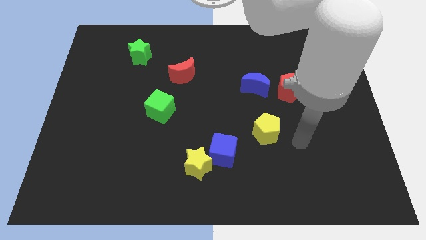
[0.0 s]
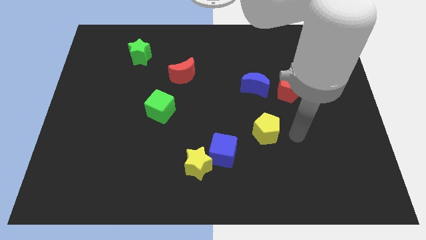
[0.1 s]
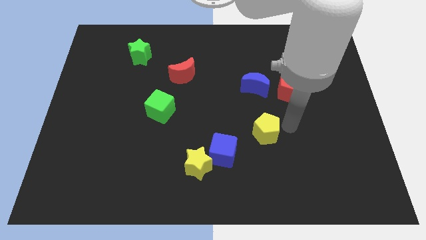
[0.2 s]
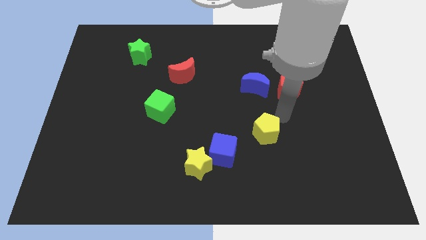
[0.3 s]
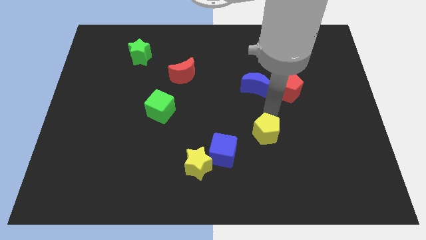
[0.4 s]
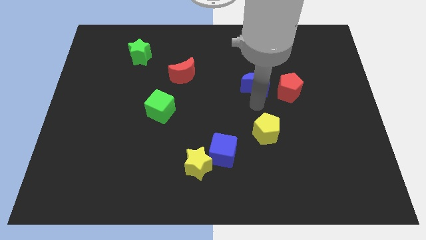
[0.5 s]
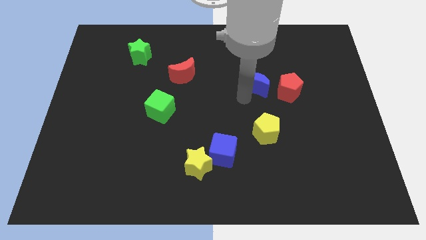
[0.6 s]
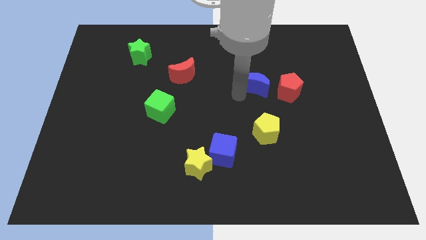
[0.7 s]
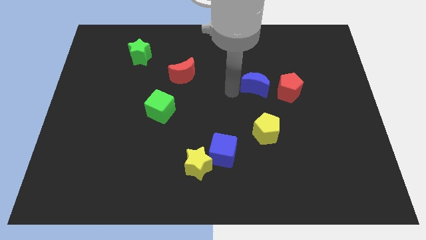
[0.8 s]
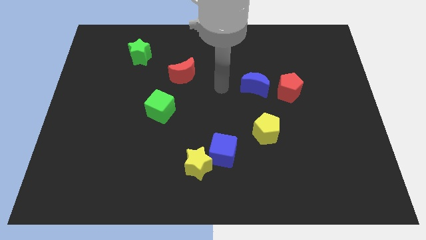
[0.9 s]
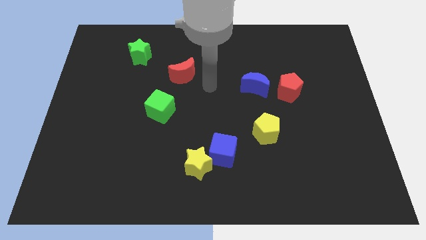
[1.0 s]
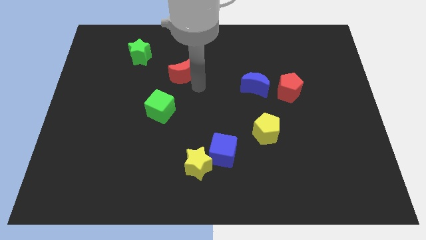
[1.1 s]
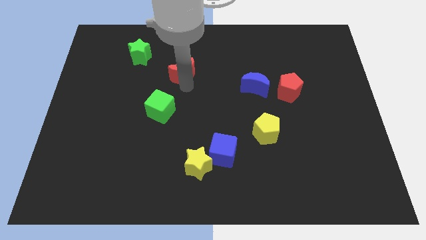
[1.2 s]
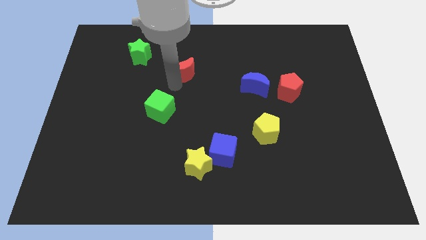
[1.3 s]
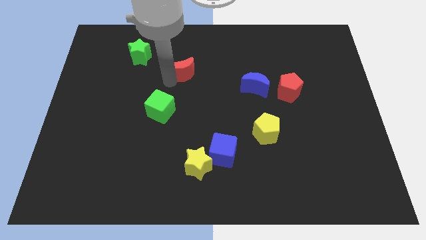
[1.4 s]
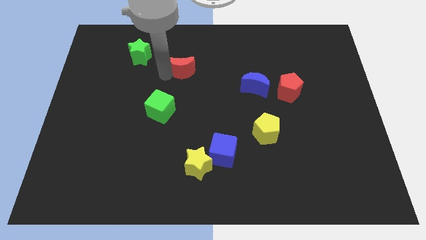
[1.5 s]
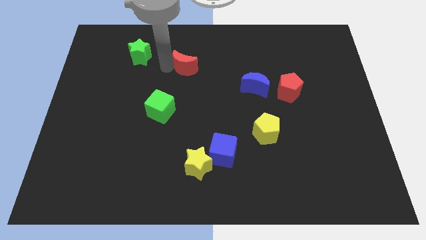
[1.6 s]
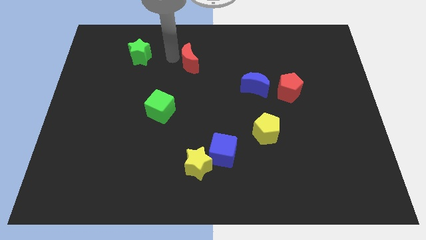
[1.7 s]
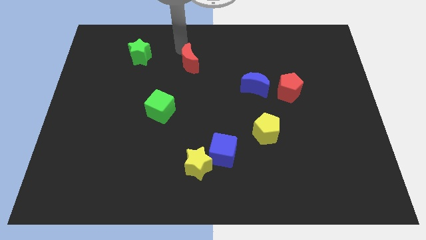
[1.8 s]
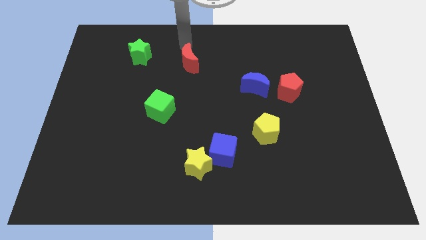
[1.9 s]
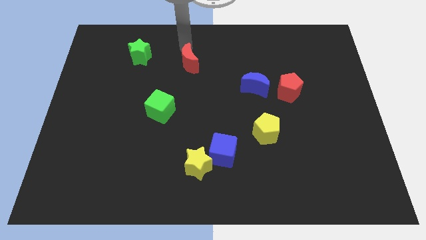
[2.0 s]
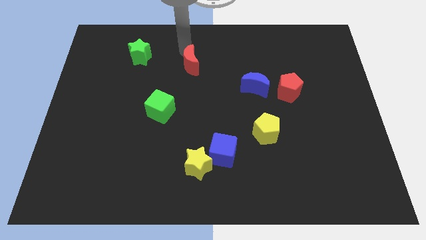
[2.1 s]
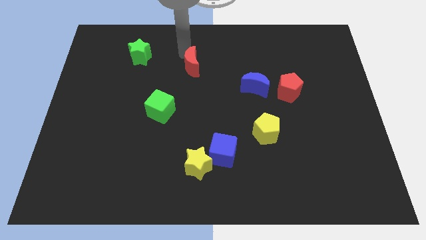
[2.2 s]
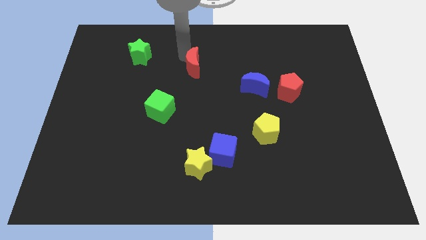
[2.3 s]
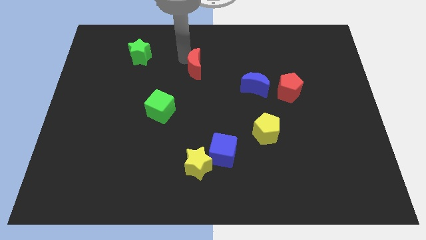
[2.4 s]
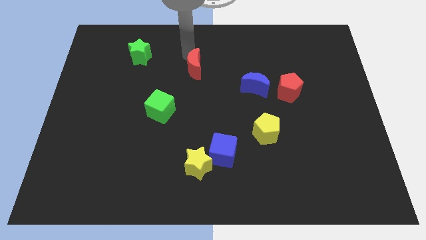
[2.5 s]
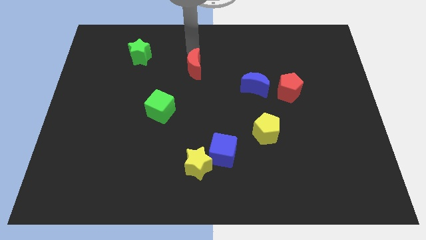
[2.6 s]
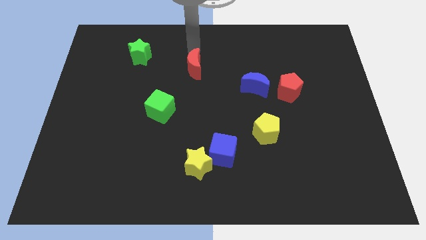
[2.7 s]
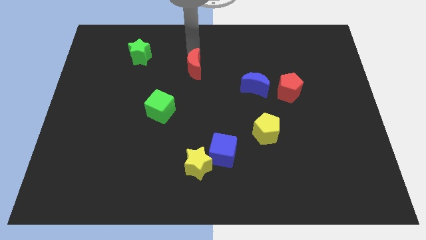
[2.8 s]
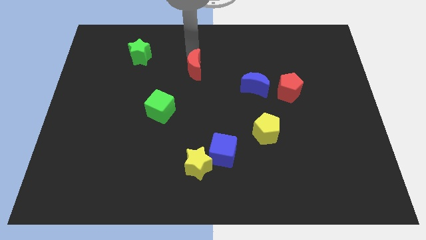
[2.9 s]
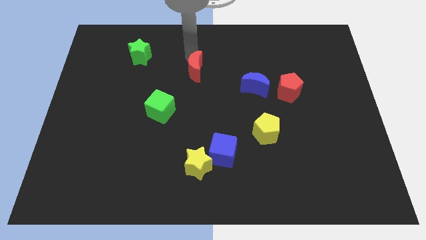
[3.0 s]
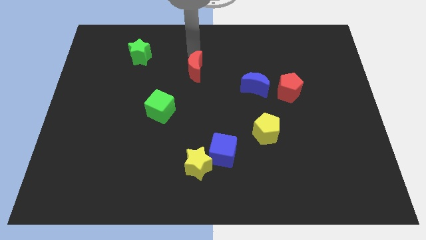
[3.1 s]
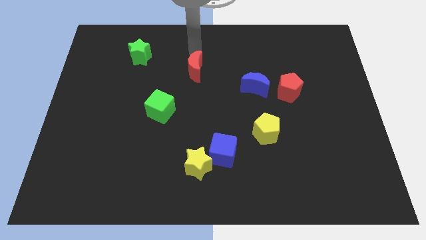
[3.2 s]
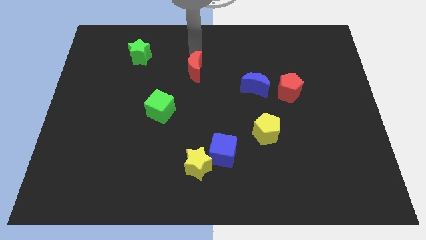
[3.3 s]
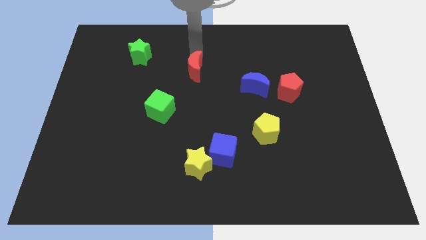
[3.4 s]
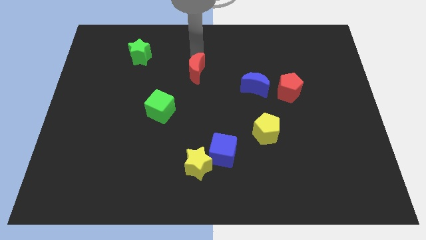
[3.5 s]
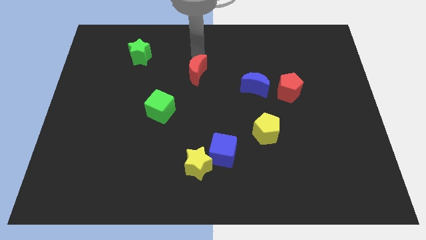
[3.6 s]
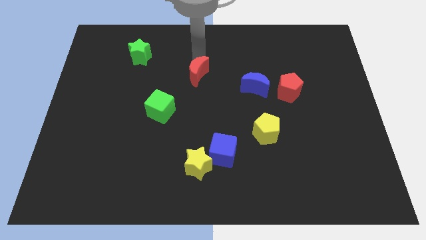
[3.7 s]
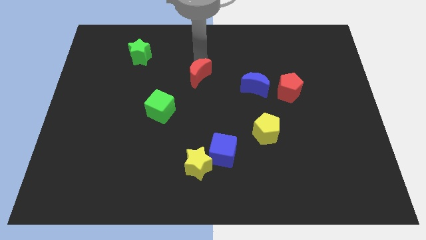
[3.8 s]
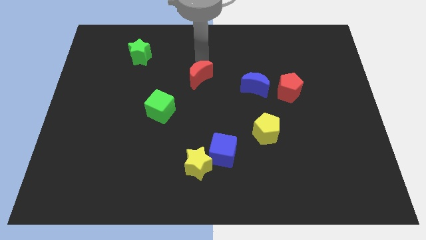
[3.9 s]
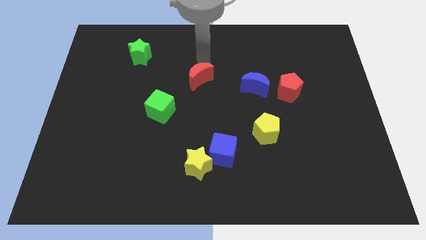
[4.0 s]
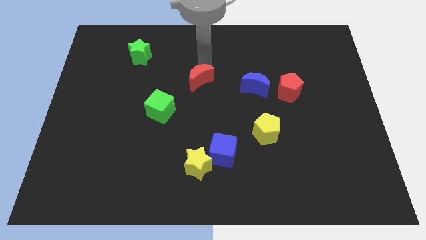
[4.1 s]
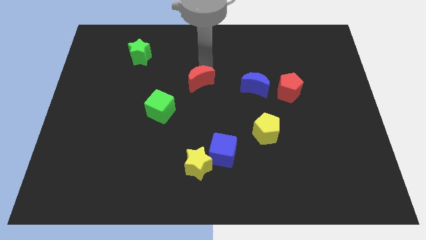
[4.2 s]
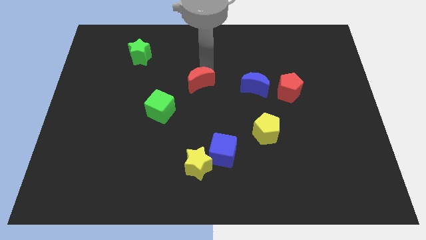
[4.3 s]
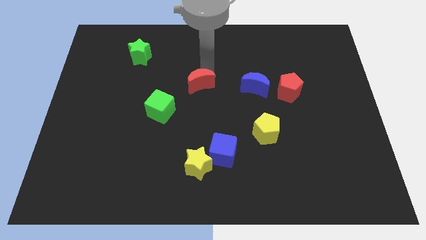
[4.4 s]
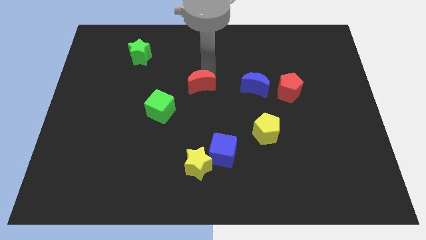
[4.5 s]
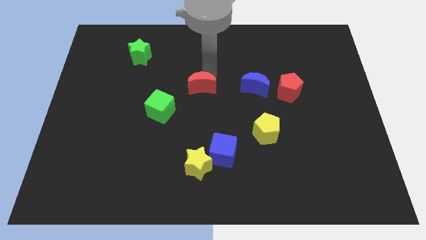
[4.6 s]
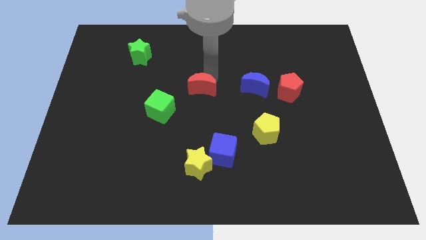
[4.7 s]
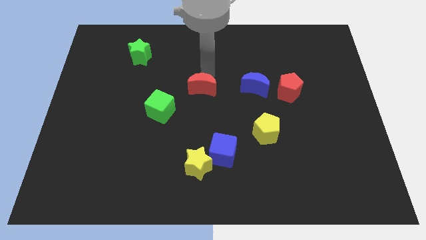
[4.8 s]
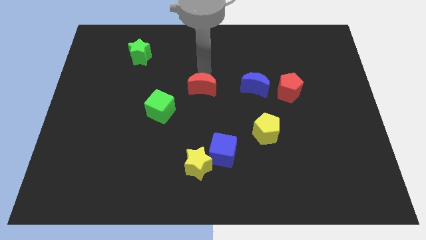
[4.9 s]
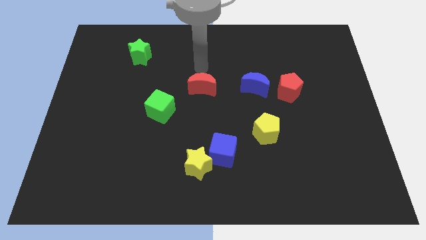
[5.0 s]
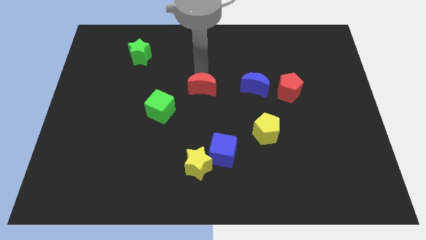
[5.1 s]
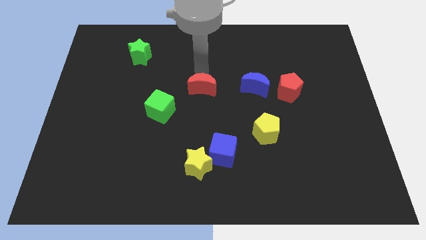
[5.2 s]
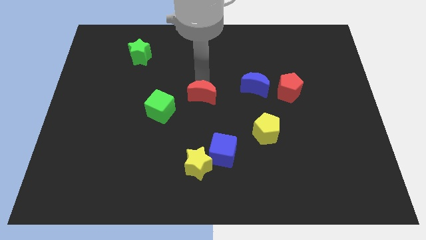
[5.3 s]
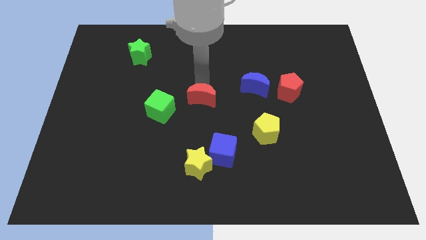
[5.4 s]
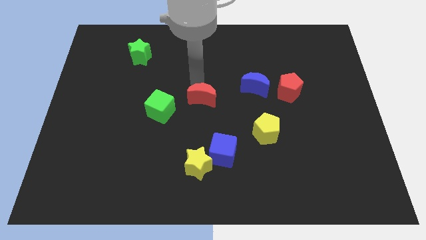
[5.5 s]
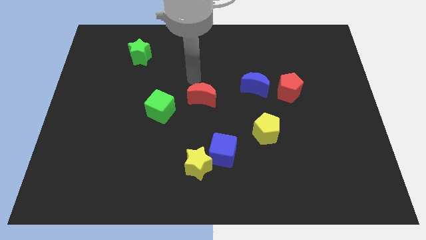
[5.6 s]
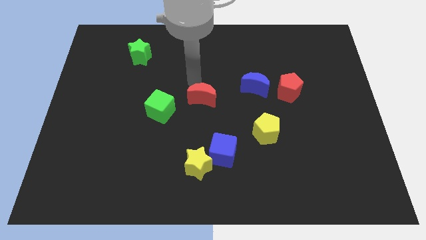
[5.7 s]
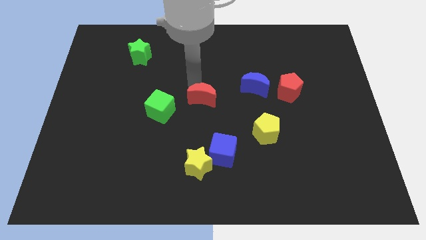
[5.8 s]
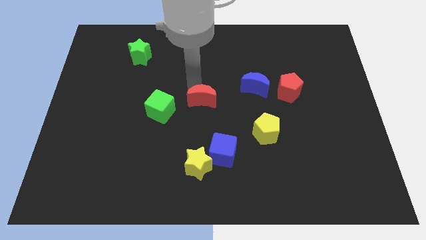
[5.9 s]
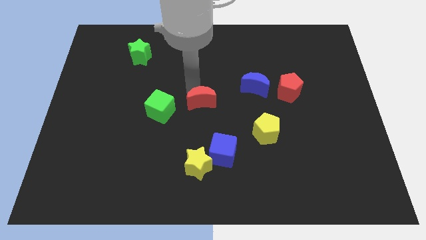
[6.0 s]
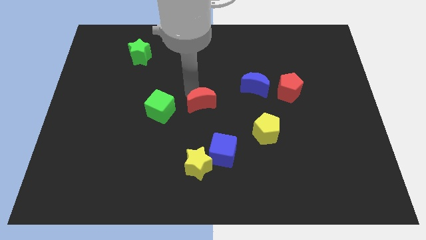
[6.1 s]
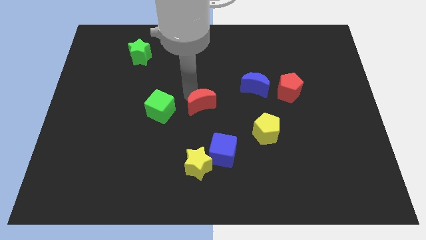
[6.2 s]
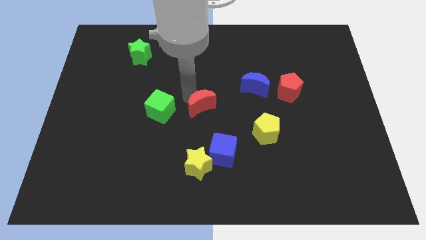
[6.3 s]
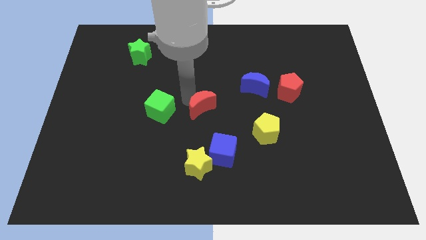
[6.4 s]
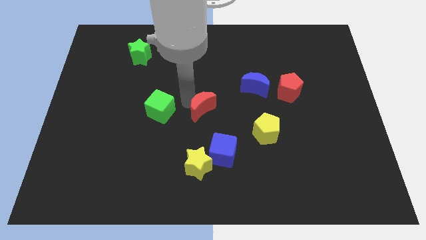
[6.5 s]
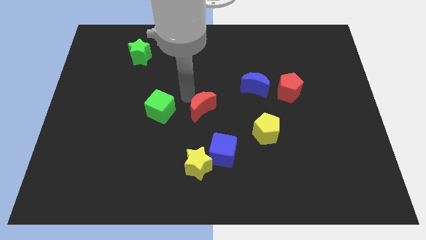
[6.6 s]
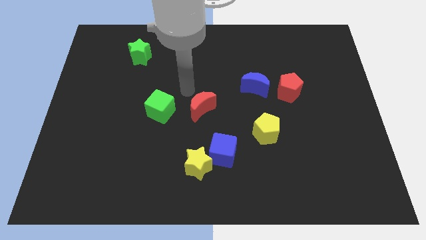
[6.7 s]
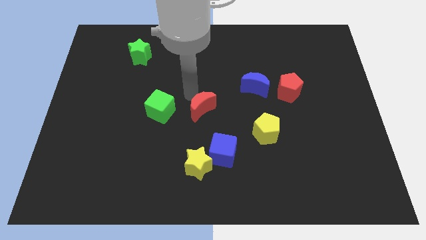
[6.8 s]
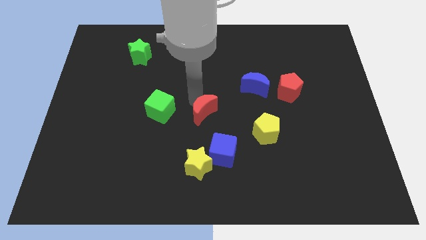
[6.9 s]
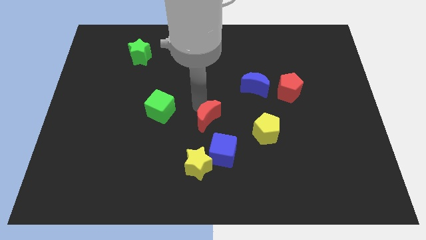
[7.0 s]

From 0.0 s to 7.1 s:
push the red moon just left of the yellow pentagon
